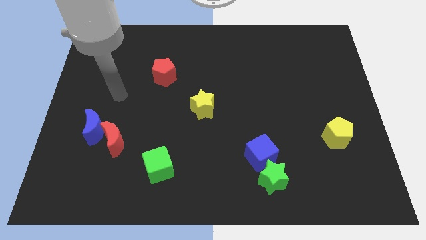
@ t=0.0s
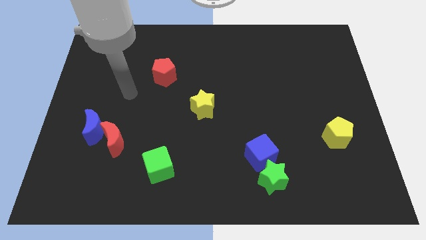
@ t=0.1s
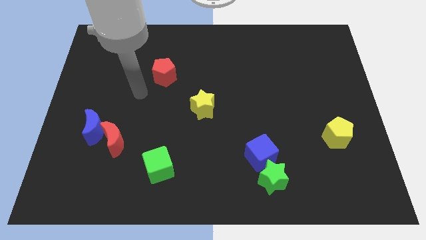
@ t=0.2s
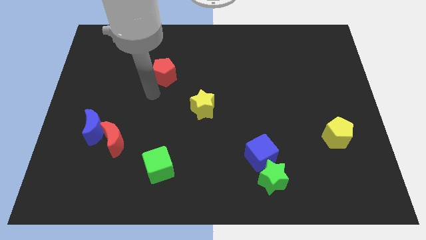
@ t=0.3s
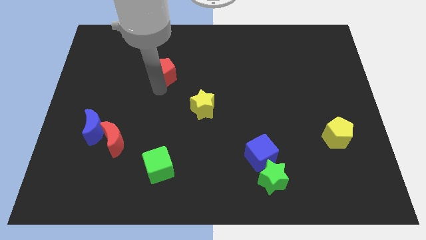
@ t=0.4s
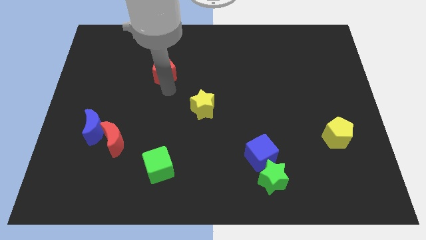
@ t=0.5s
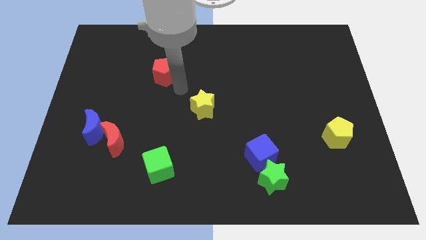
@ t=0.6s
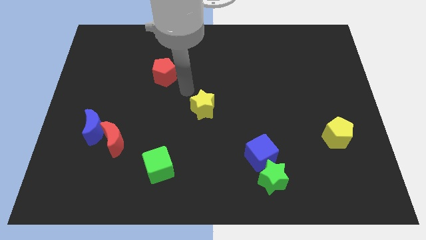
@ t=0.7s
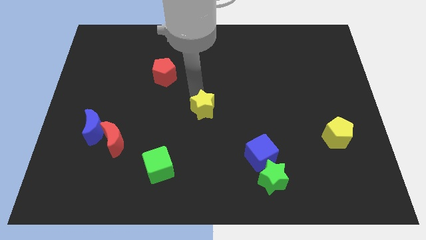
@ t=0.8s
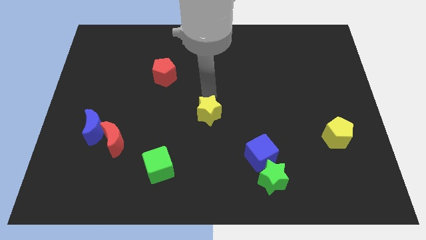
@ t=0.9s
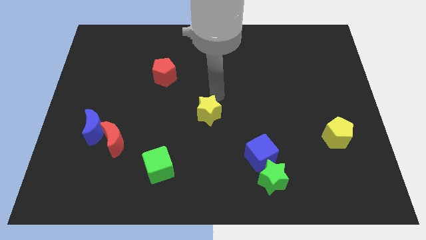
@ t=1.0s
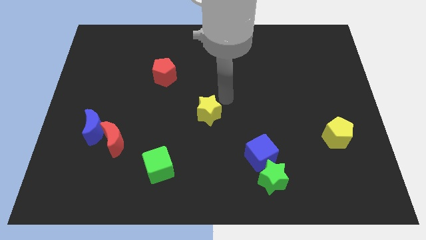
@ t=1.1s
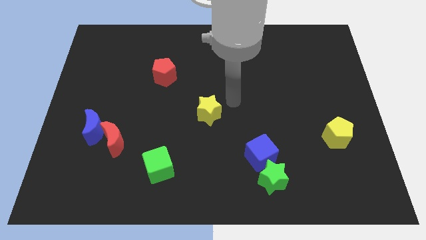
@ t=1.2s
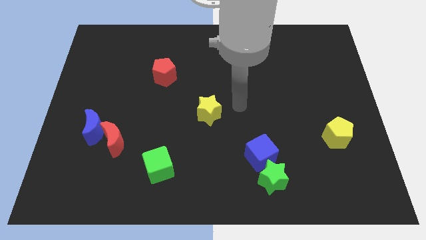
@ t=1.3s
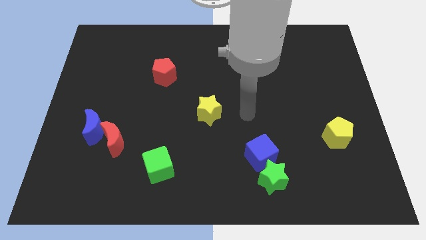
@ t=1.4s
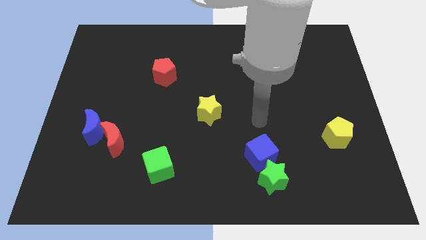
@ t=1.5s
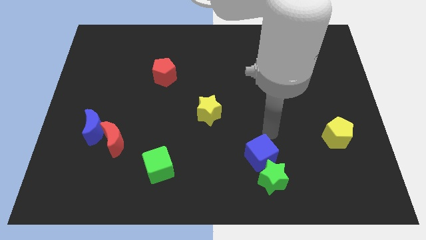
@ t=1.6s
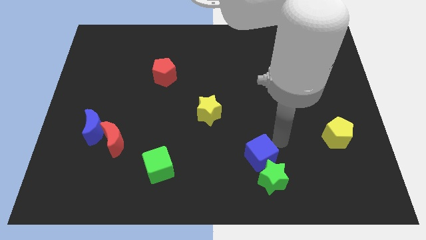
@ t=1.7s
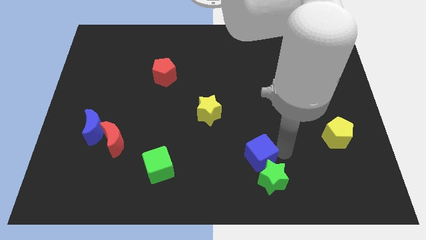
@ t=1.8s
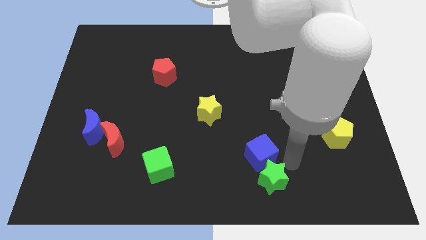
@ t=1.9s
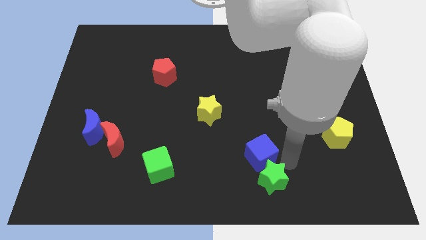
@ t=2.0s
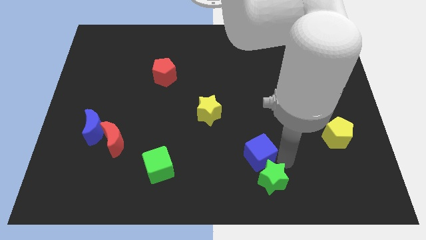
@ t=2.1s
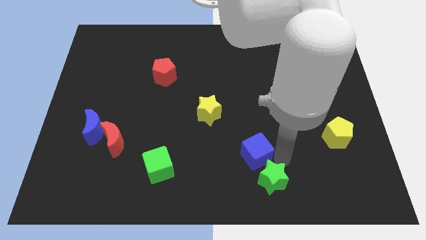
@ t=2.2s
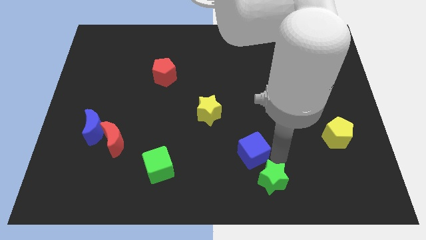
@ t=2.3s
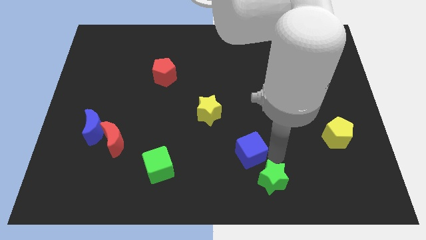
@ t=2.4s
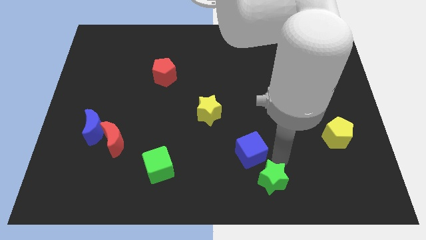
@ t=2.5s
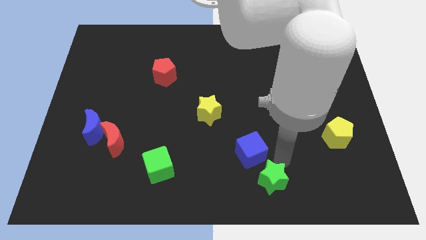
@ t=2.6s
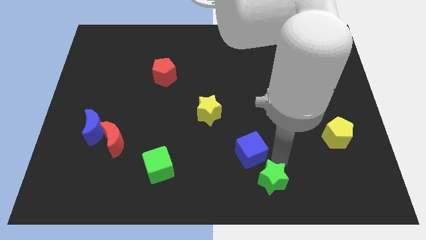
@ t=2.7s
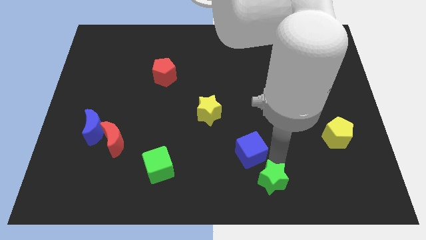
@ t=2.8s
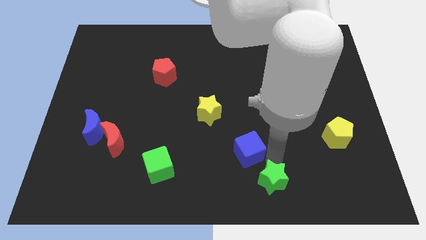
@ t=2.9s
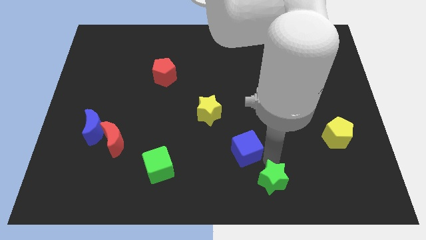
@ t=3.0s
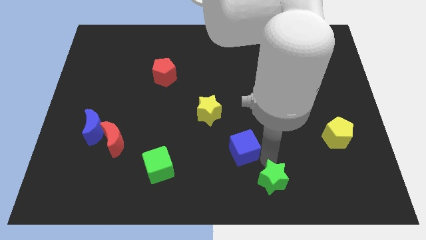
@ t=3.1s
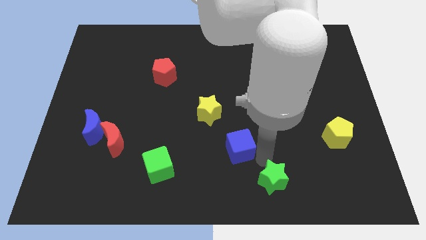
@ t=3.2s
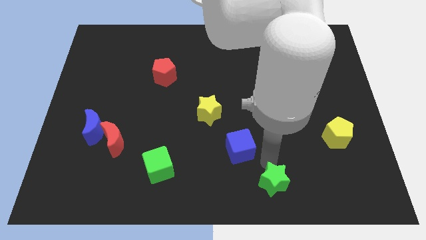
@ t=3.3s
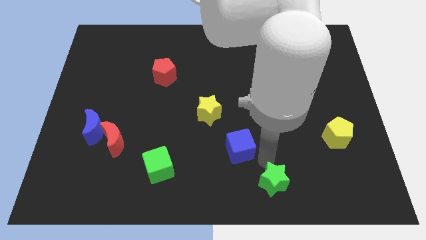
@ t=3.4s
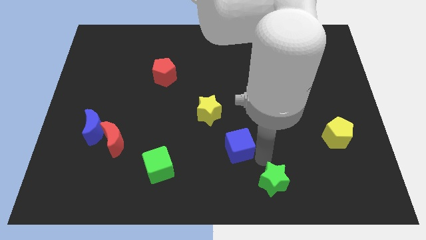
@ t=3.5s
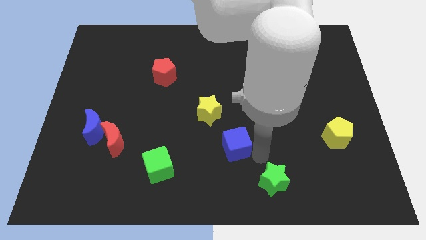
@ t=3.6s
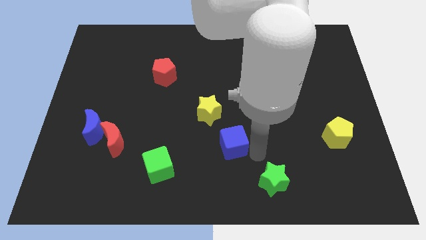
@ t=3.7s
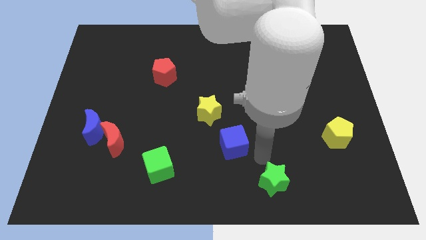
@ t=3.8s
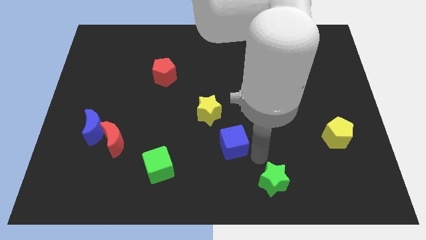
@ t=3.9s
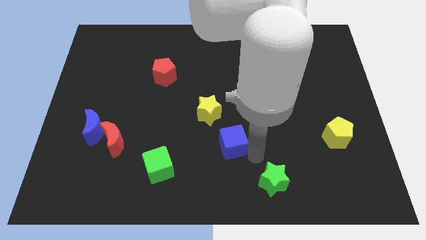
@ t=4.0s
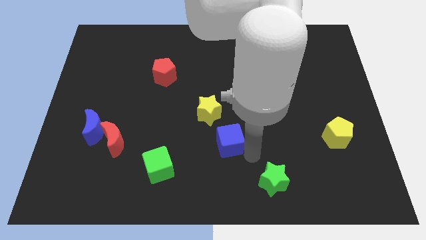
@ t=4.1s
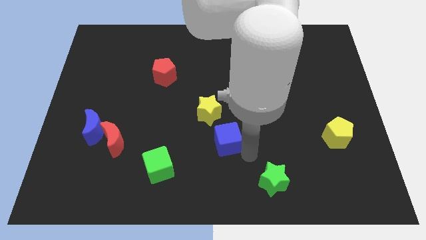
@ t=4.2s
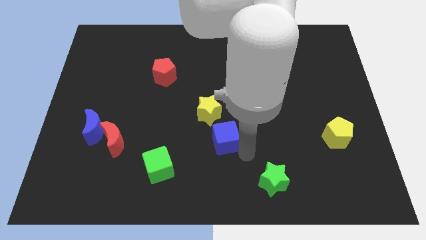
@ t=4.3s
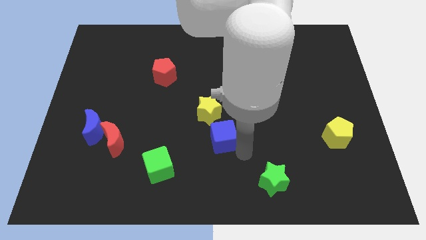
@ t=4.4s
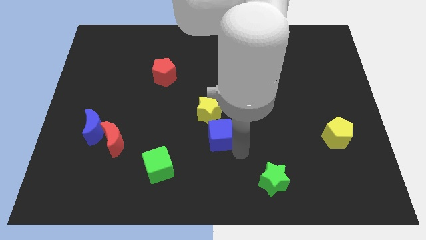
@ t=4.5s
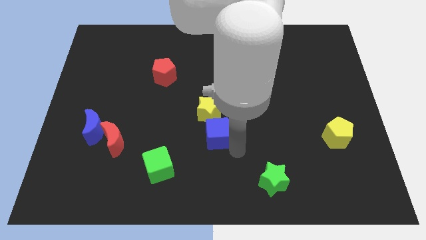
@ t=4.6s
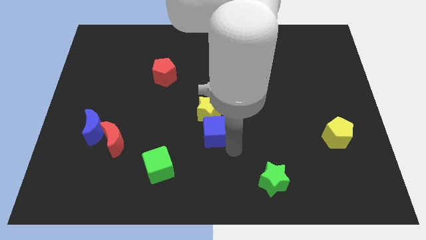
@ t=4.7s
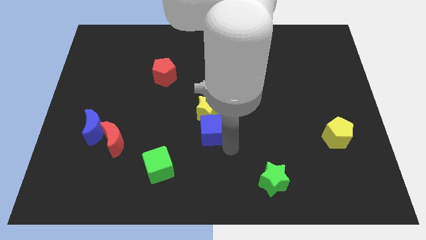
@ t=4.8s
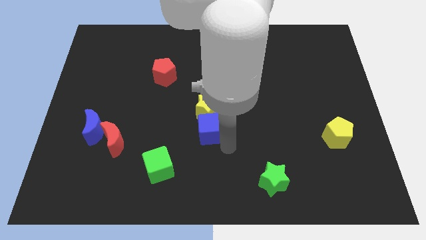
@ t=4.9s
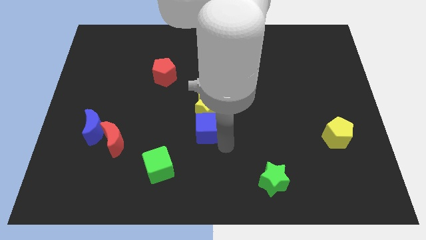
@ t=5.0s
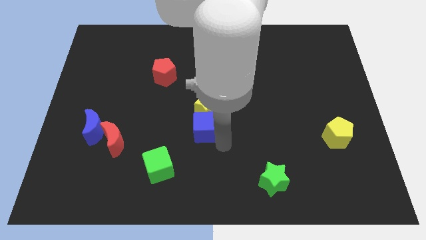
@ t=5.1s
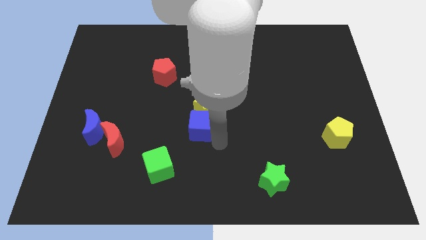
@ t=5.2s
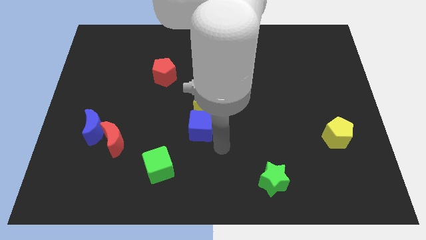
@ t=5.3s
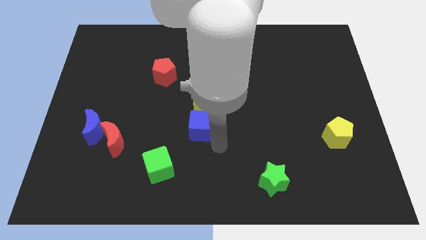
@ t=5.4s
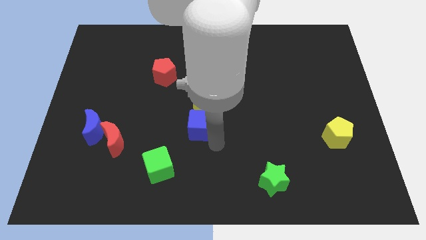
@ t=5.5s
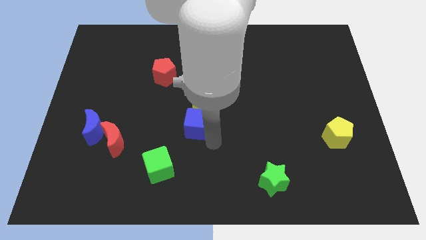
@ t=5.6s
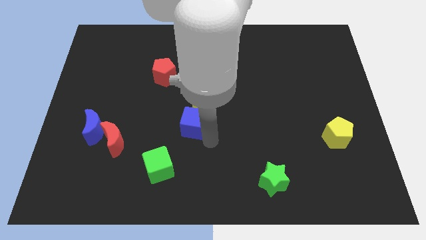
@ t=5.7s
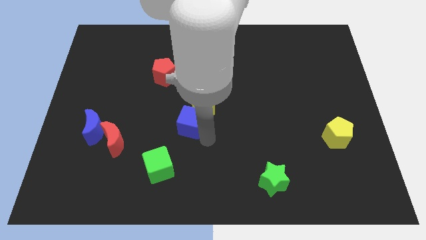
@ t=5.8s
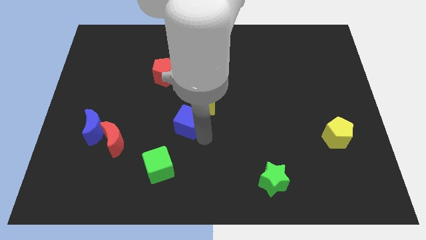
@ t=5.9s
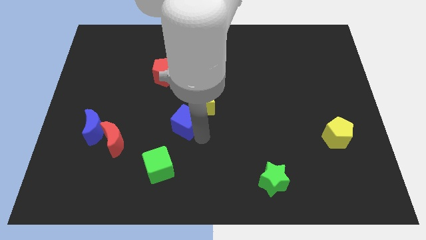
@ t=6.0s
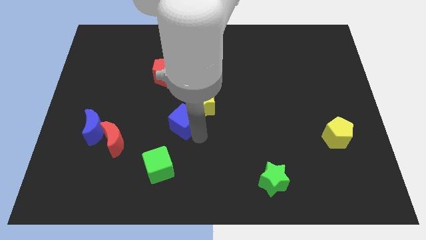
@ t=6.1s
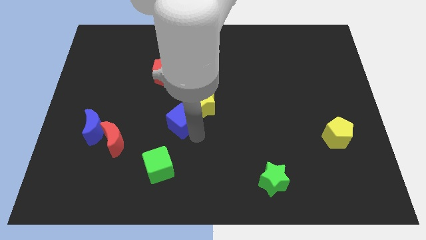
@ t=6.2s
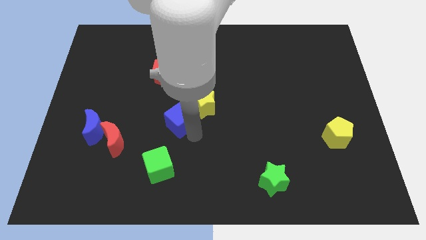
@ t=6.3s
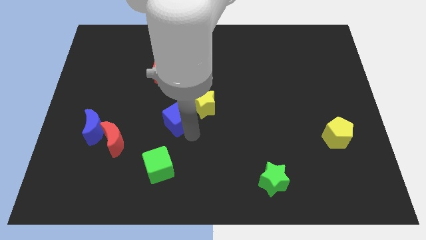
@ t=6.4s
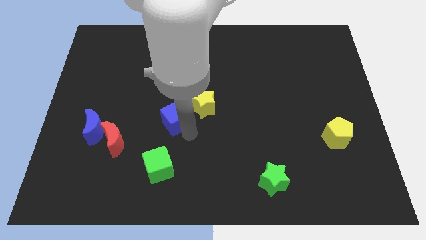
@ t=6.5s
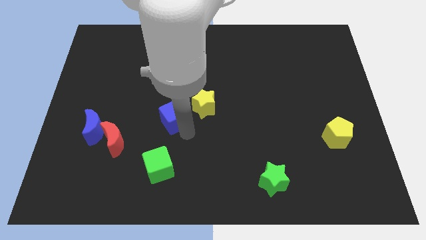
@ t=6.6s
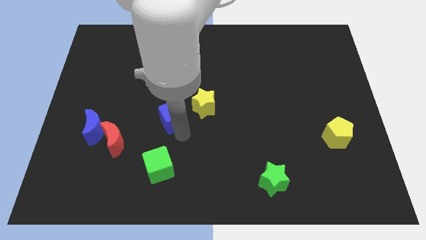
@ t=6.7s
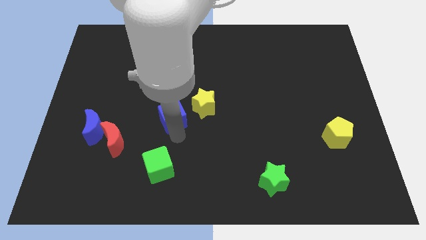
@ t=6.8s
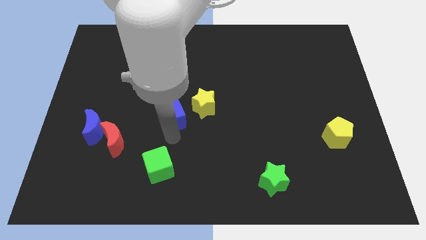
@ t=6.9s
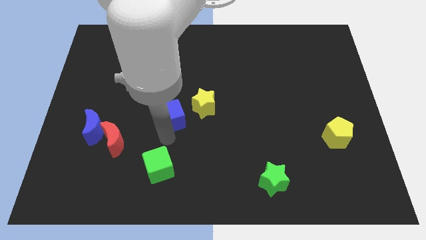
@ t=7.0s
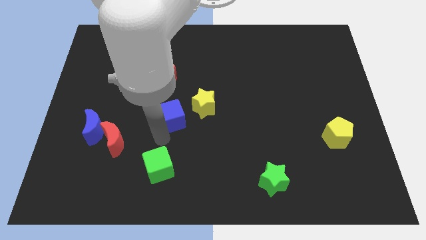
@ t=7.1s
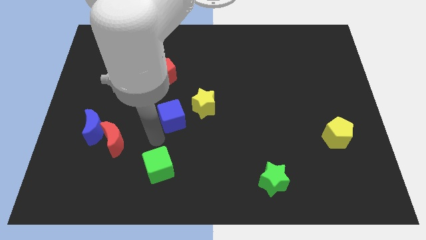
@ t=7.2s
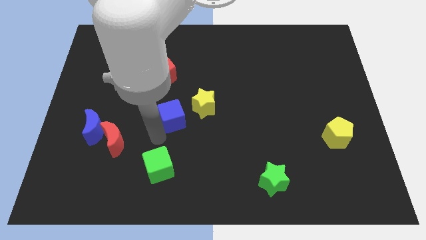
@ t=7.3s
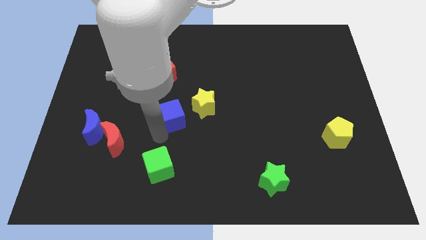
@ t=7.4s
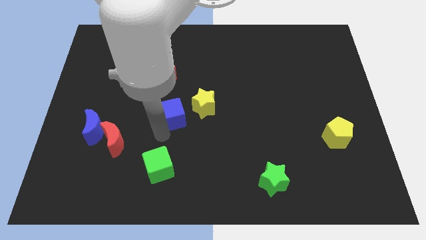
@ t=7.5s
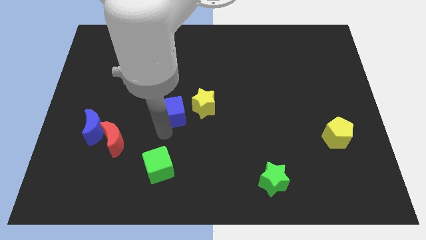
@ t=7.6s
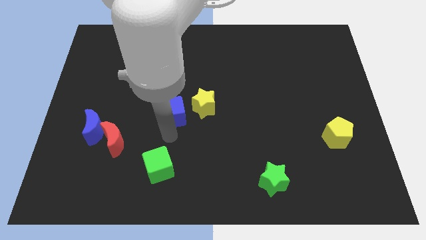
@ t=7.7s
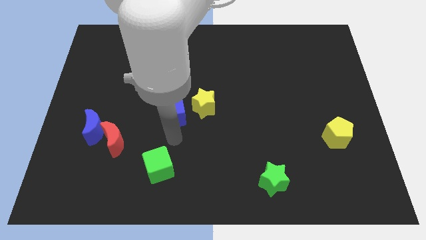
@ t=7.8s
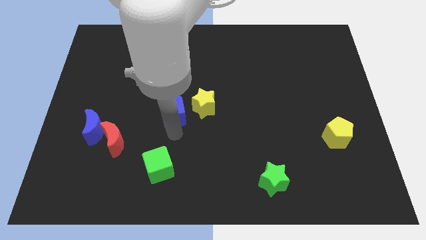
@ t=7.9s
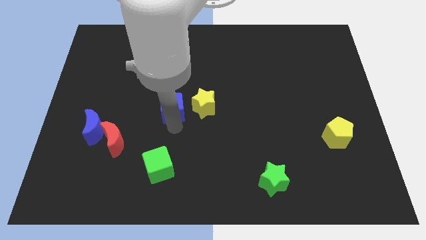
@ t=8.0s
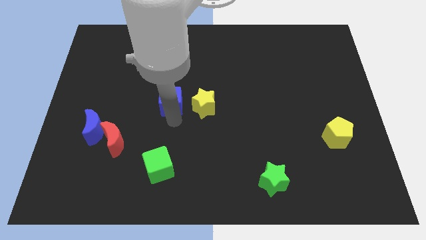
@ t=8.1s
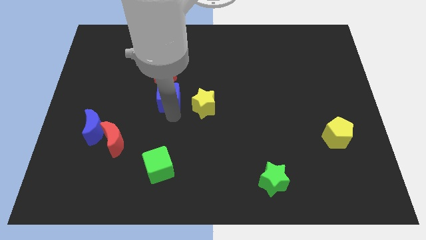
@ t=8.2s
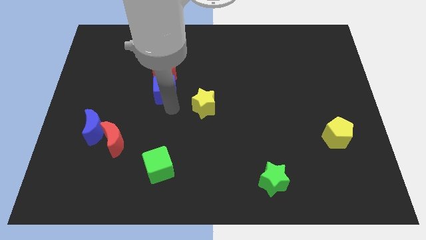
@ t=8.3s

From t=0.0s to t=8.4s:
slide the blue cube to the red pentagon
